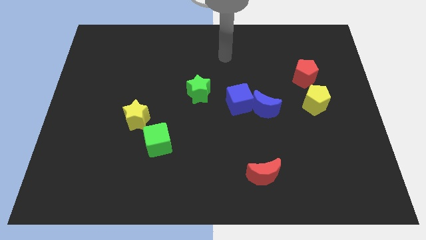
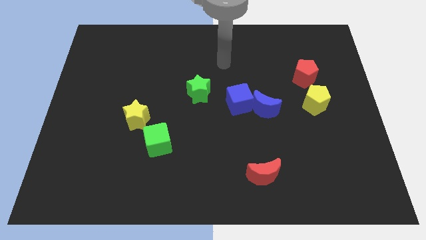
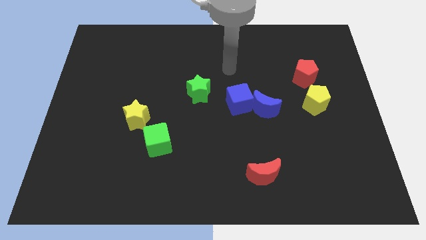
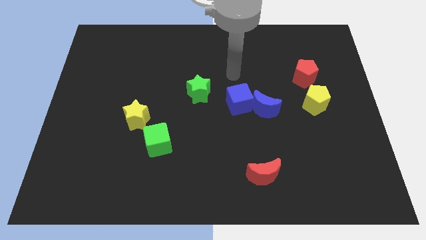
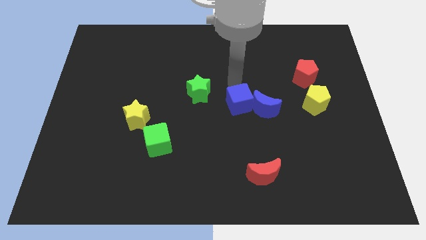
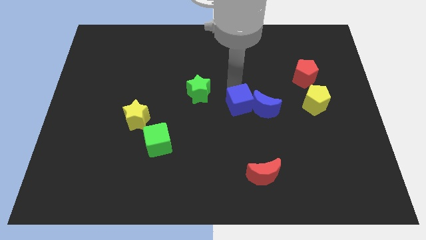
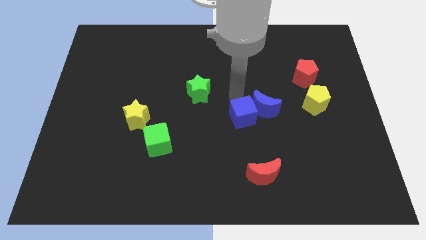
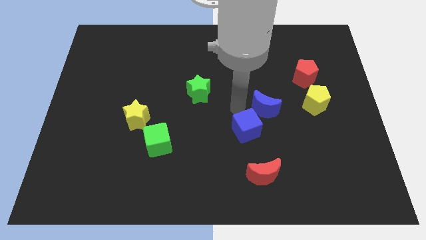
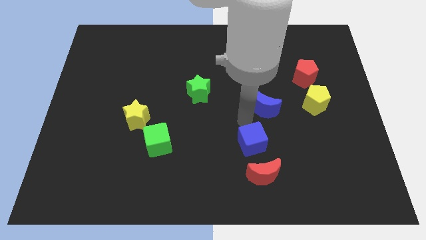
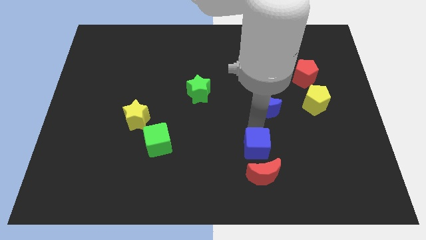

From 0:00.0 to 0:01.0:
move the blue moon away from the blue cube

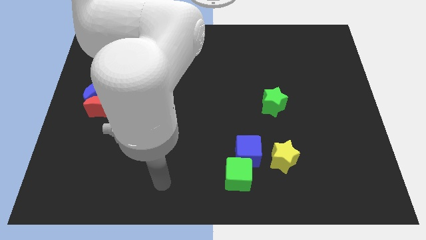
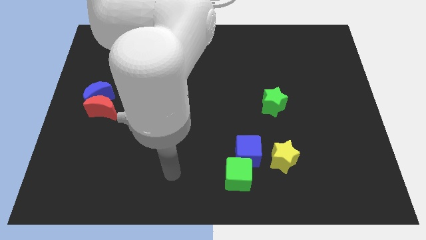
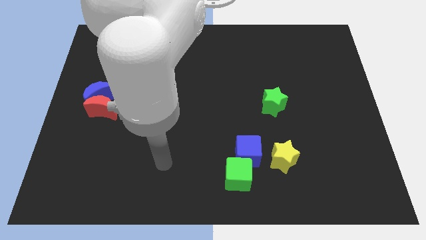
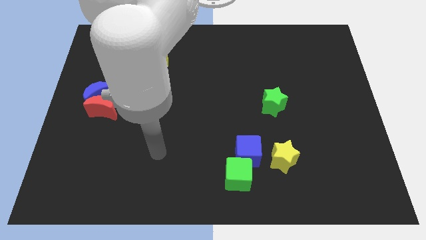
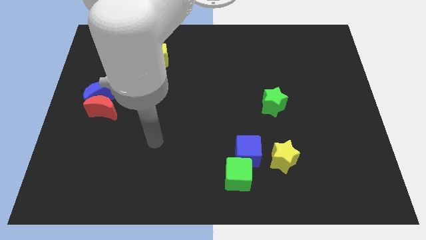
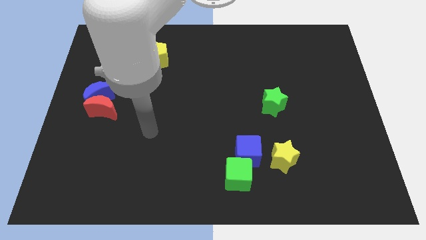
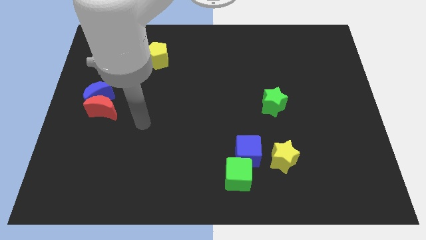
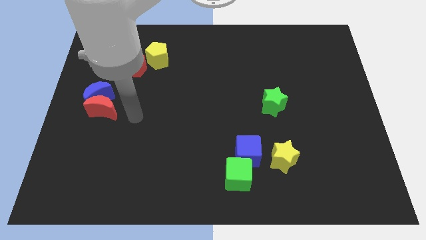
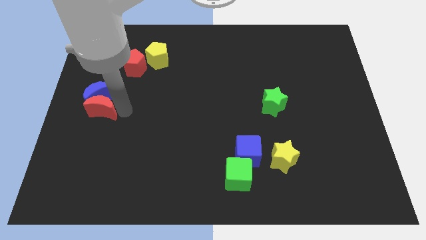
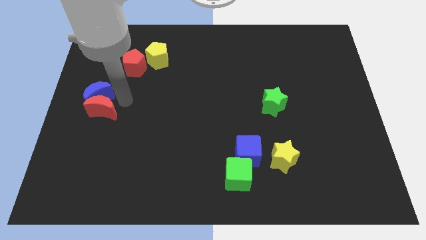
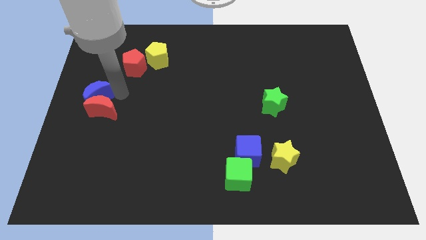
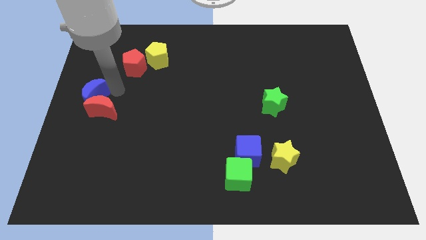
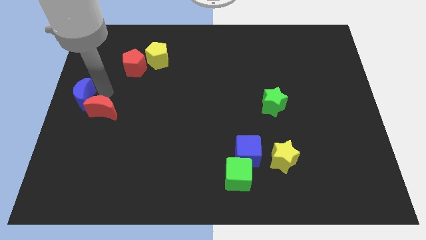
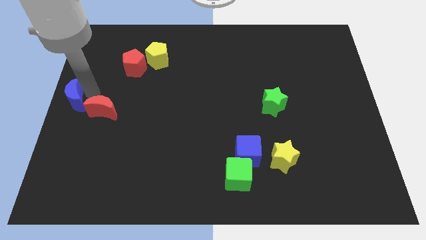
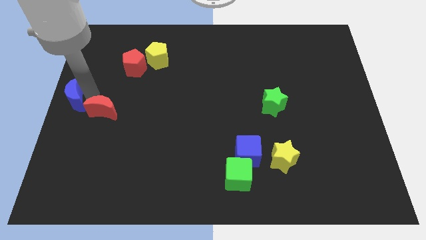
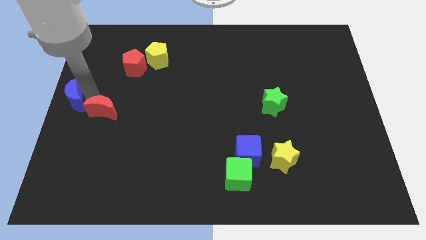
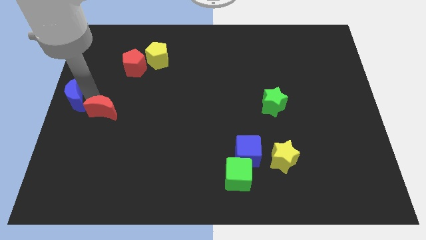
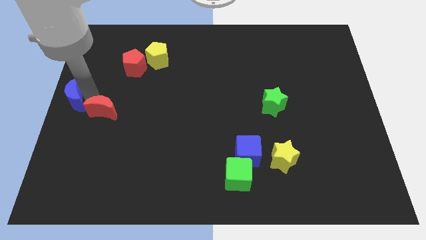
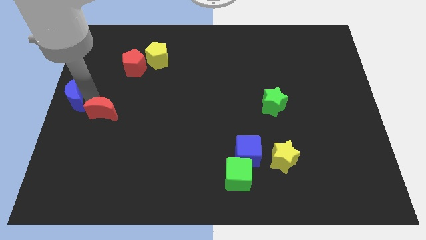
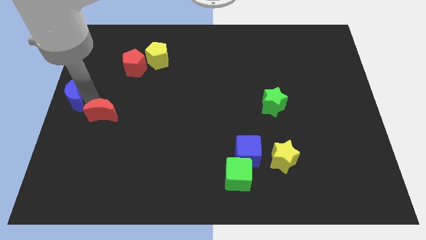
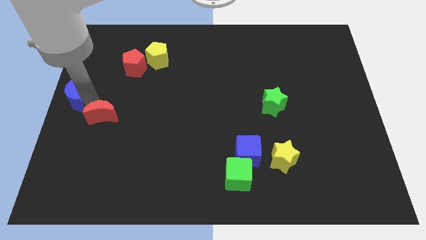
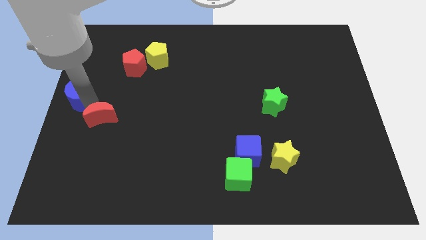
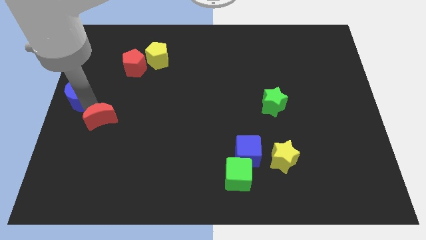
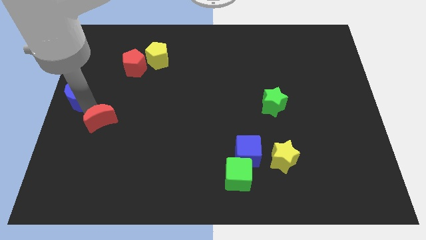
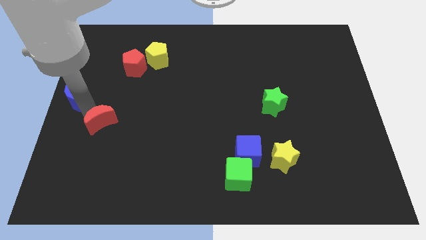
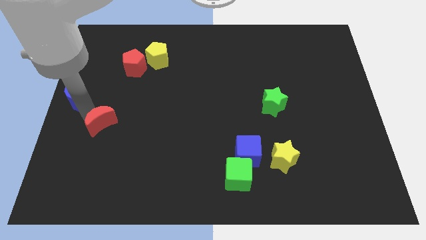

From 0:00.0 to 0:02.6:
separate the red moon from the blue moon

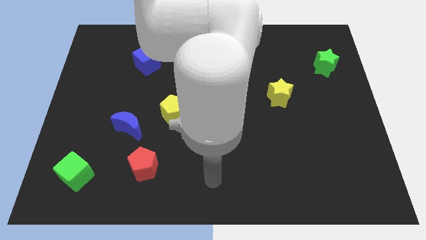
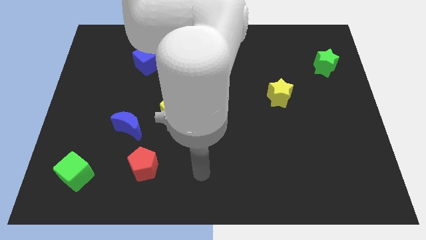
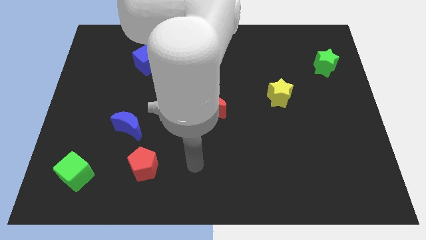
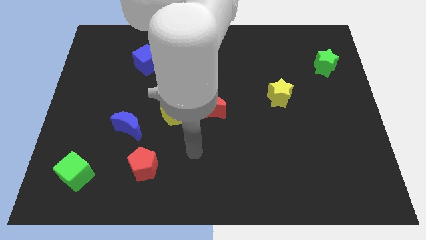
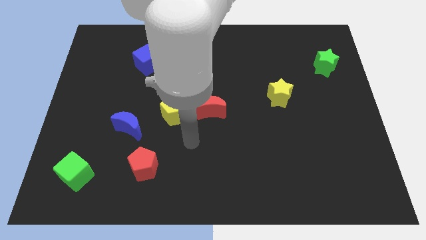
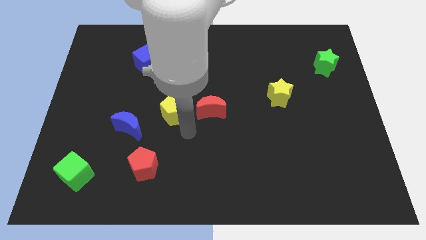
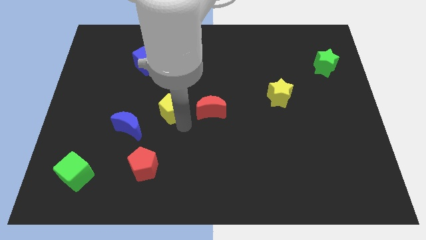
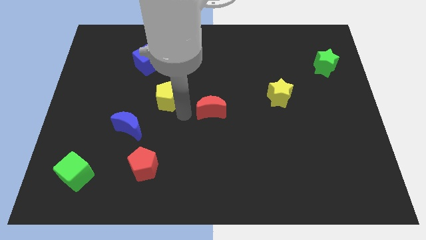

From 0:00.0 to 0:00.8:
separate the red moon from the yellow pentagon

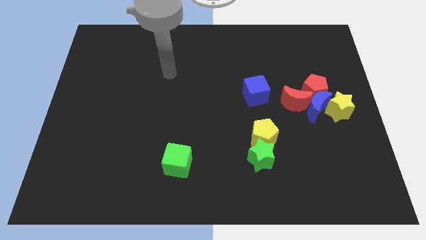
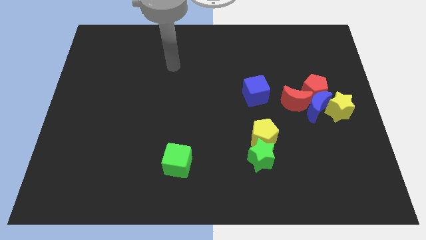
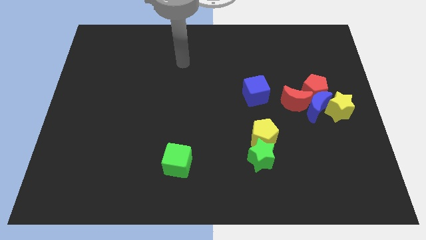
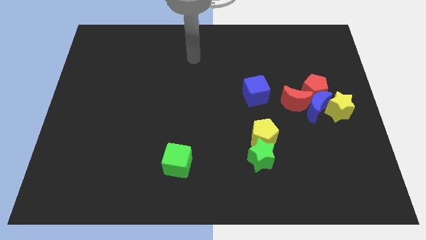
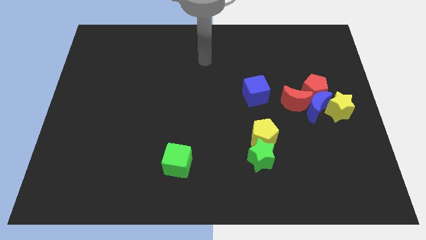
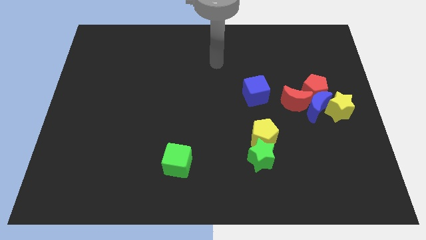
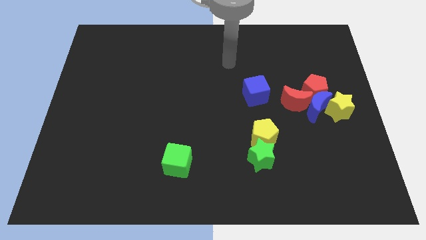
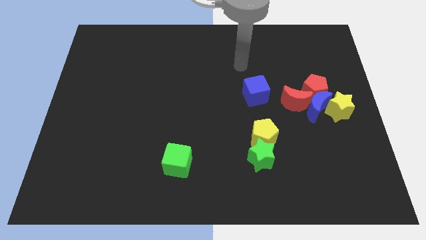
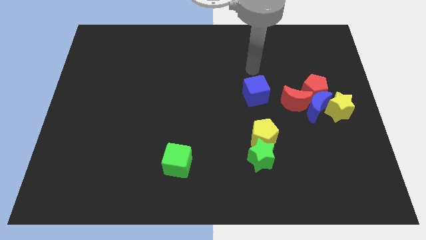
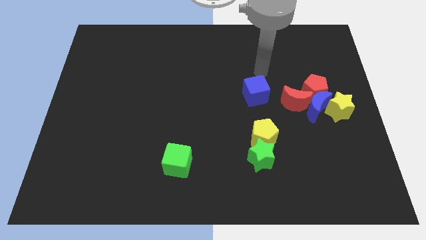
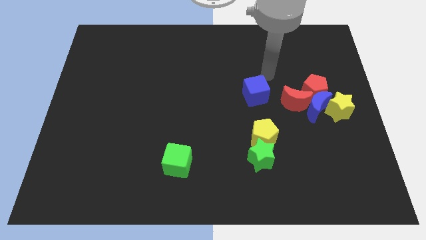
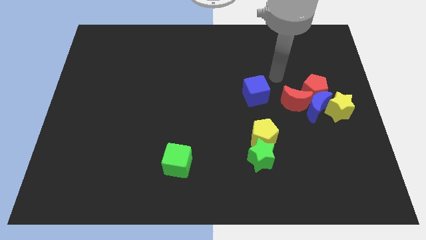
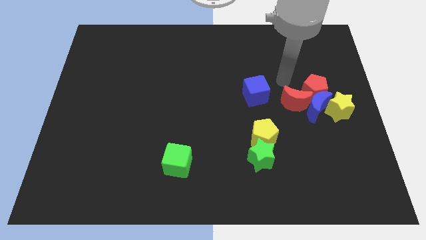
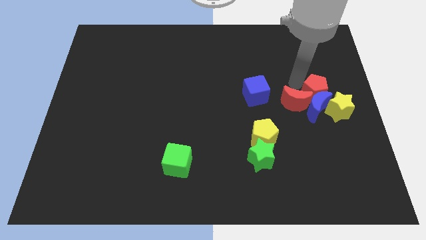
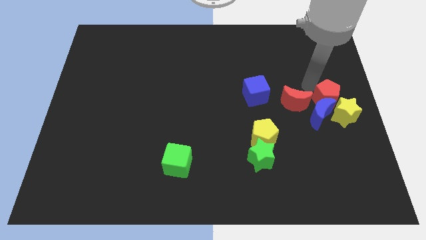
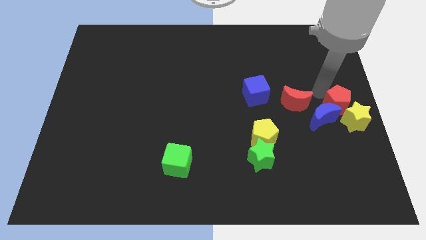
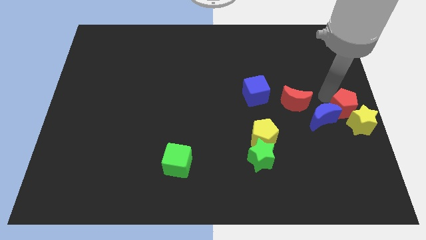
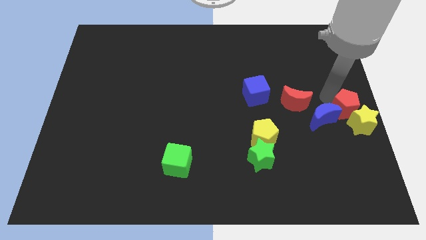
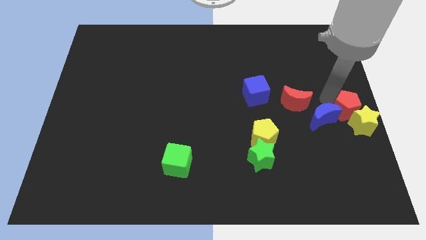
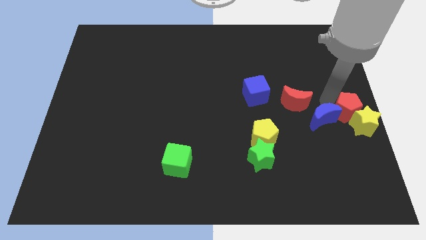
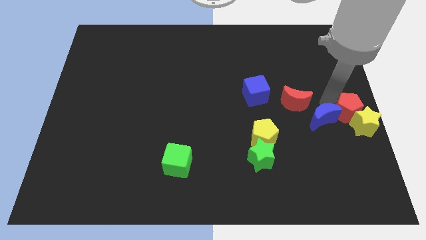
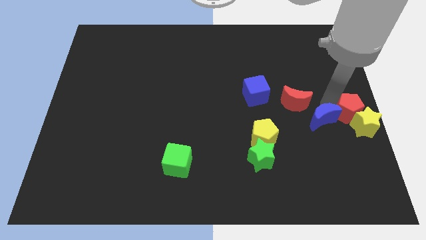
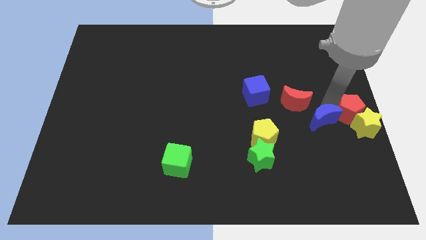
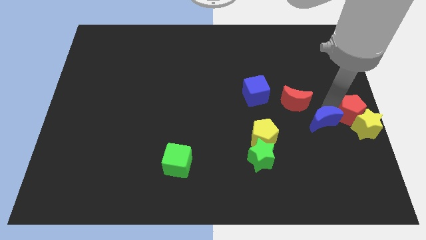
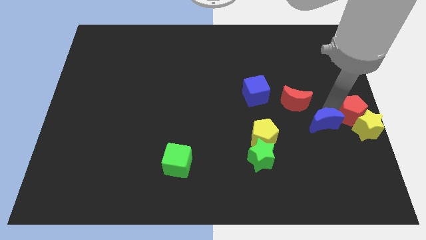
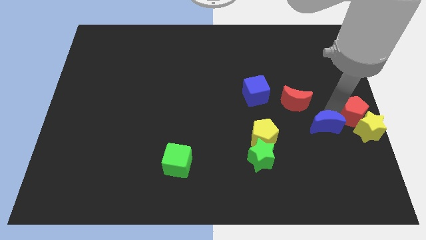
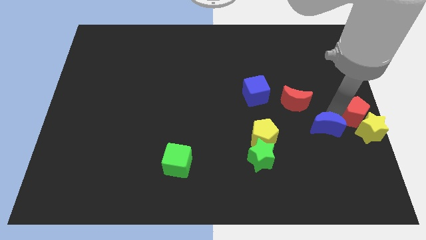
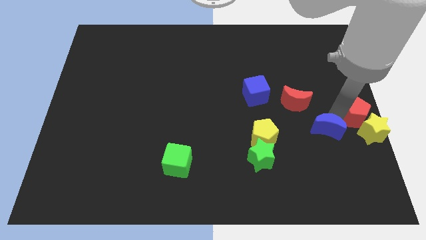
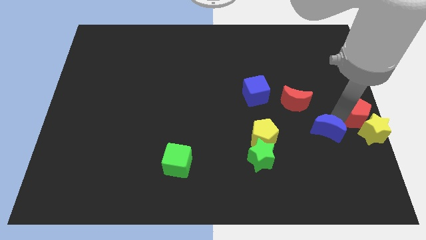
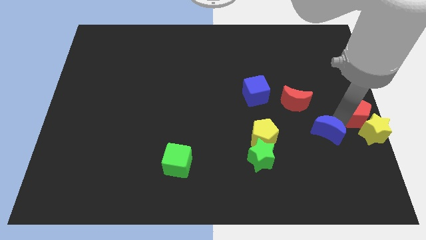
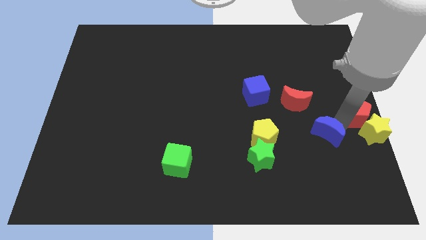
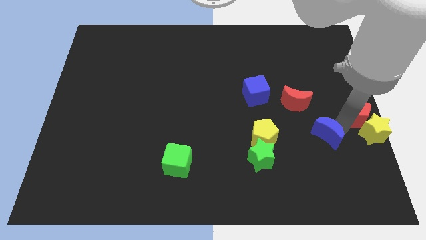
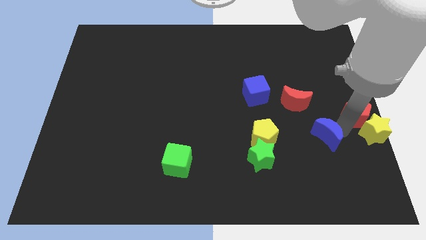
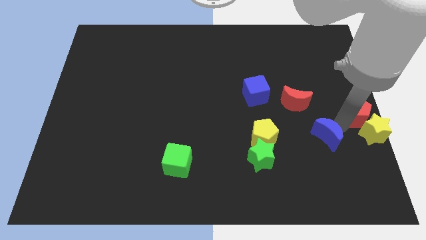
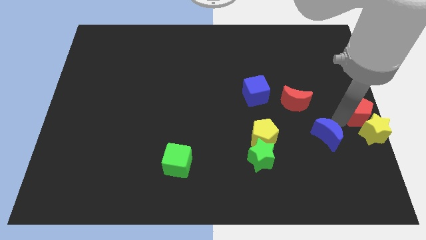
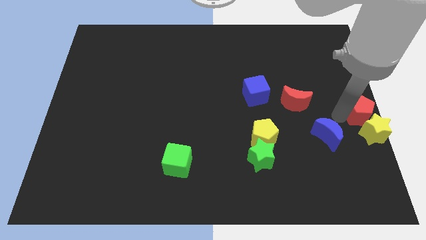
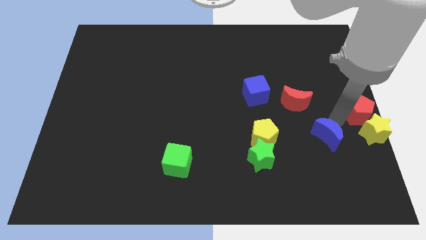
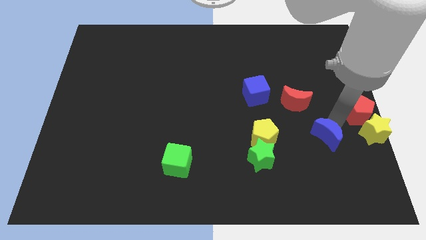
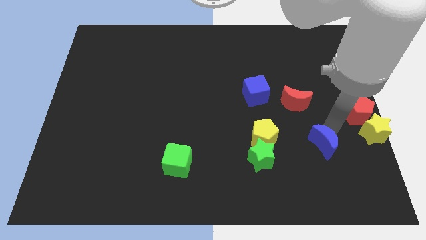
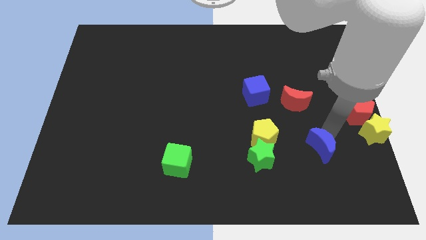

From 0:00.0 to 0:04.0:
separate the blue moon from the group of blocks

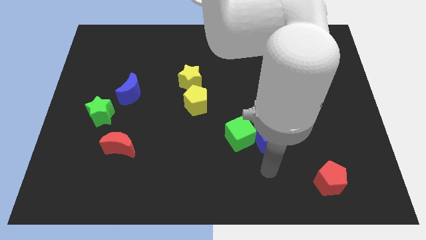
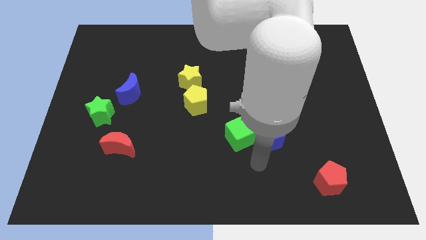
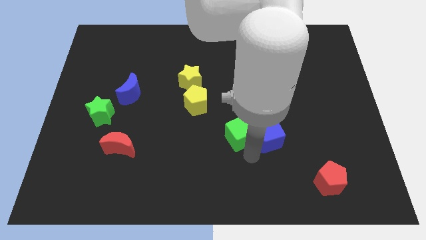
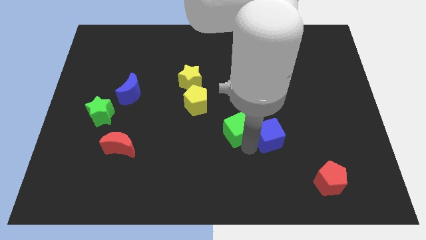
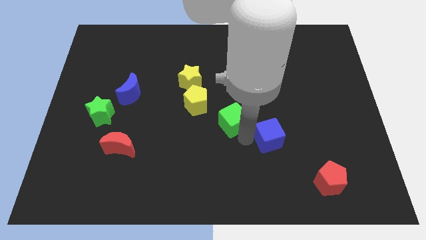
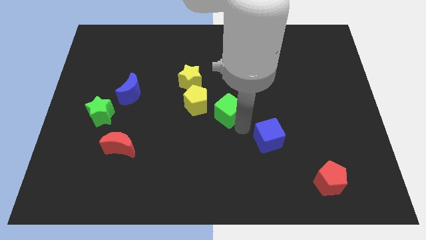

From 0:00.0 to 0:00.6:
separate the blue cube from the green cube

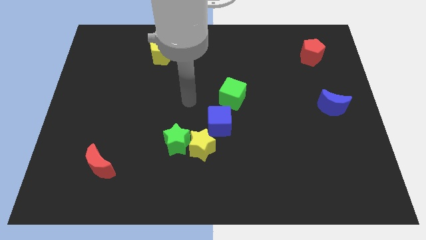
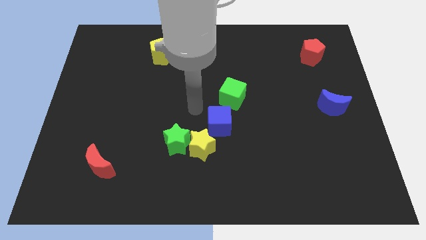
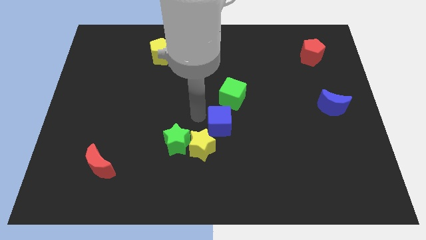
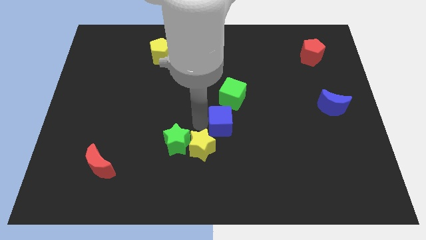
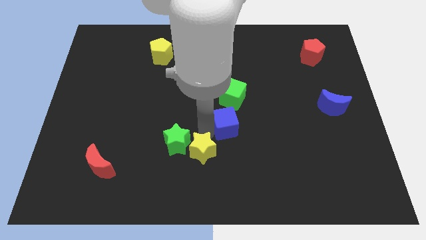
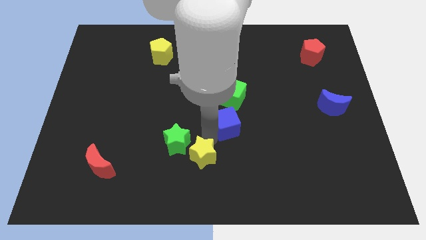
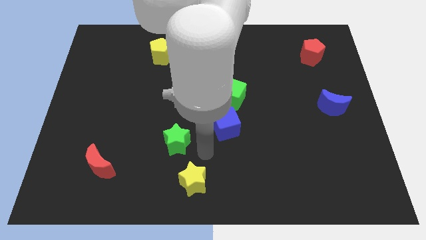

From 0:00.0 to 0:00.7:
pull the green star apart from the yellow star
